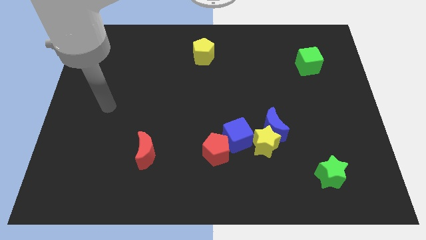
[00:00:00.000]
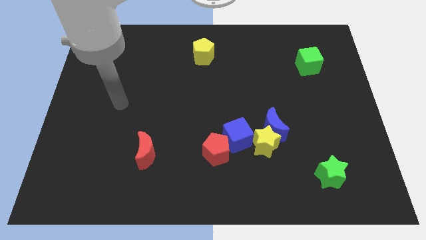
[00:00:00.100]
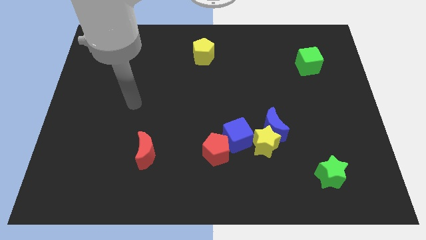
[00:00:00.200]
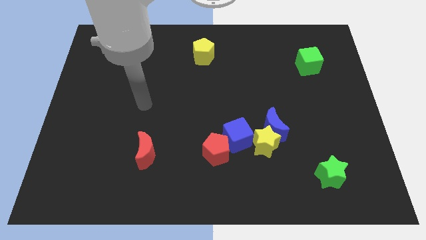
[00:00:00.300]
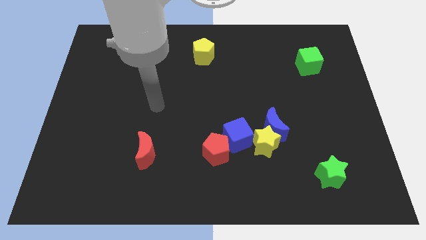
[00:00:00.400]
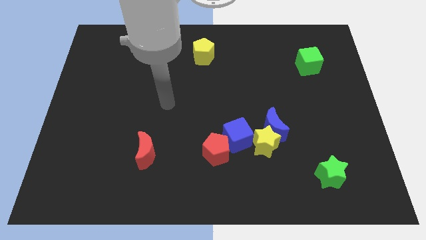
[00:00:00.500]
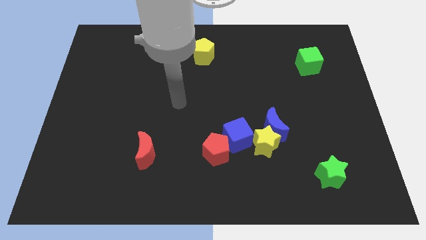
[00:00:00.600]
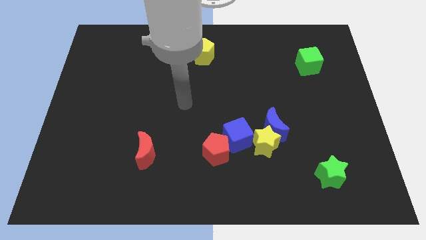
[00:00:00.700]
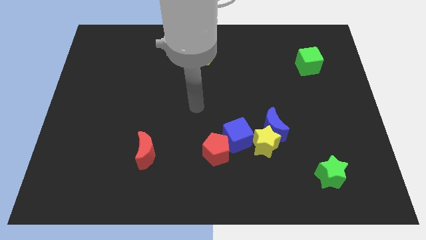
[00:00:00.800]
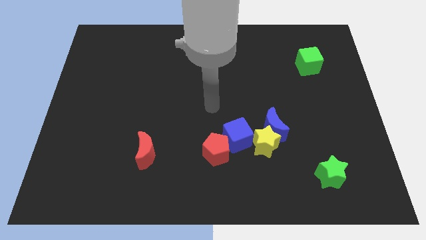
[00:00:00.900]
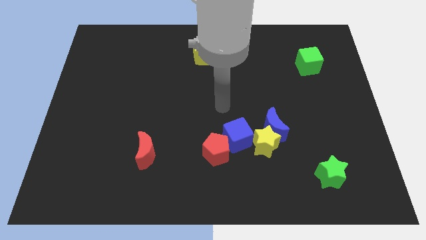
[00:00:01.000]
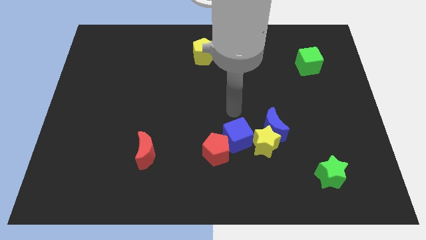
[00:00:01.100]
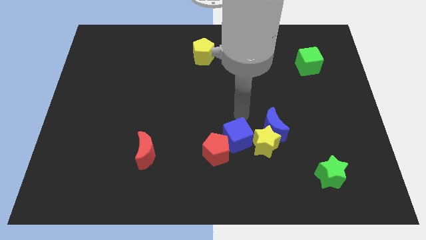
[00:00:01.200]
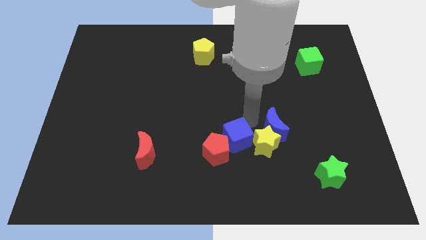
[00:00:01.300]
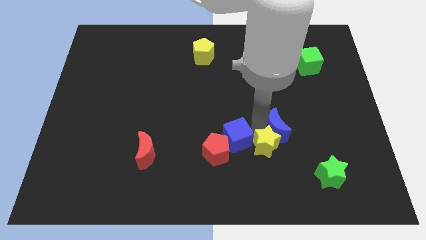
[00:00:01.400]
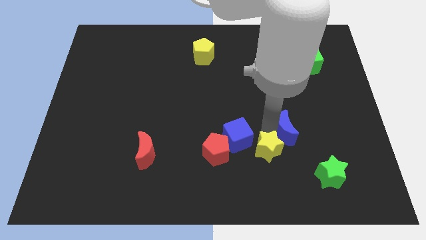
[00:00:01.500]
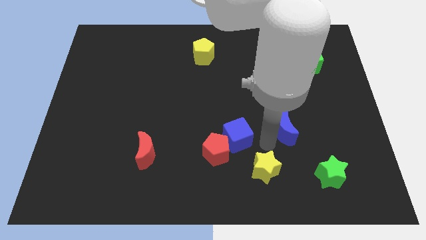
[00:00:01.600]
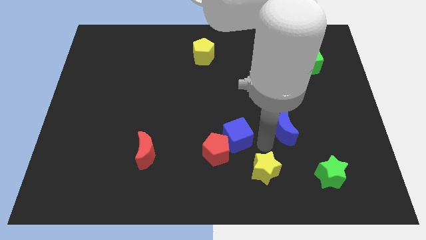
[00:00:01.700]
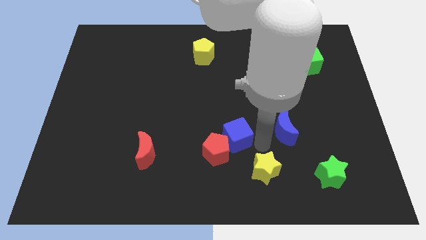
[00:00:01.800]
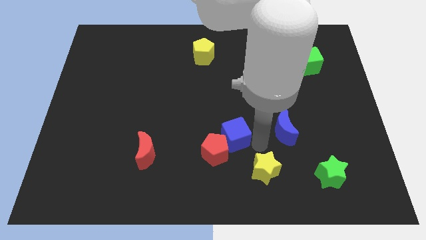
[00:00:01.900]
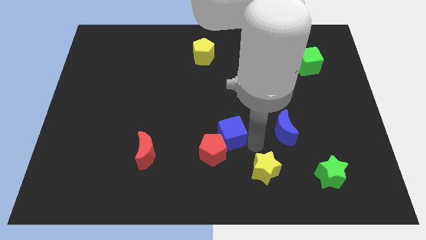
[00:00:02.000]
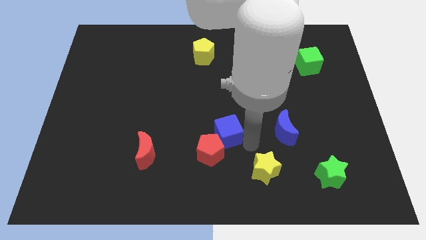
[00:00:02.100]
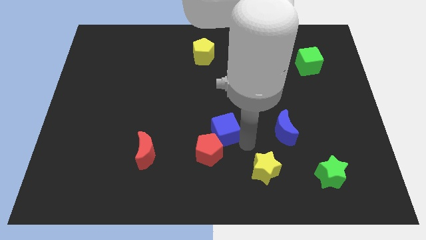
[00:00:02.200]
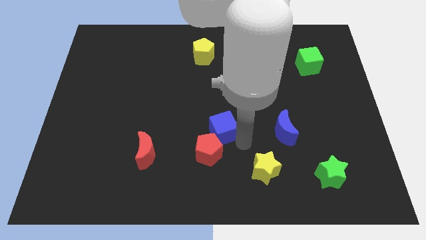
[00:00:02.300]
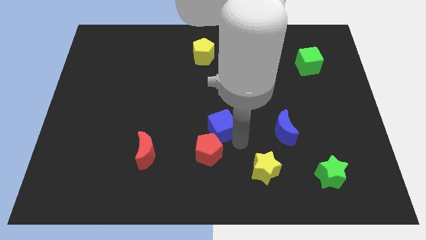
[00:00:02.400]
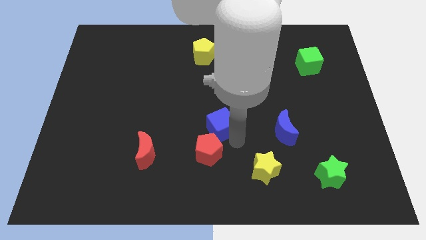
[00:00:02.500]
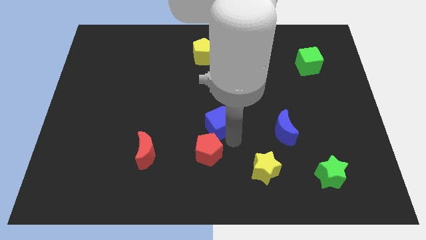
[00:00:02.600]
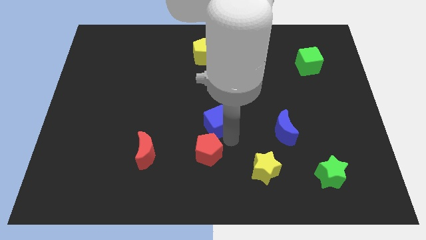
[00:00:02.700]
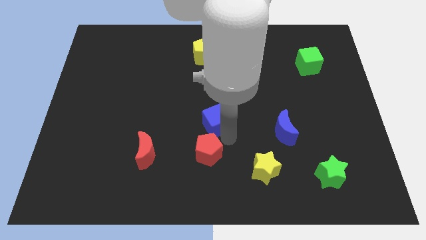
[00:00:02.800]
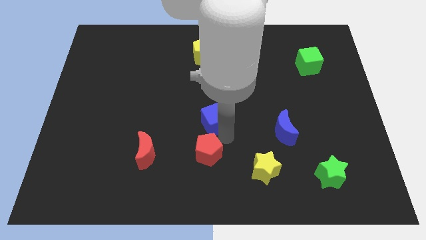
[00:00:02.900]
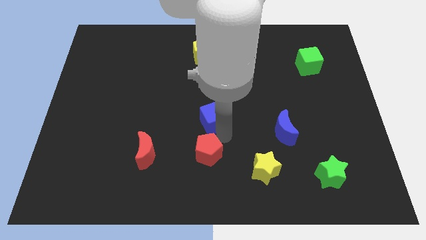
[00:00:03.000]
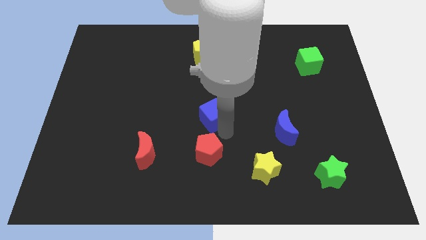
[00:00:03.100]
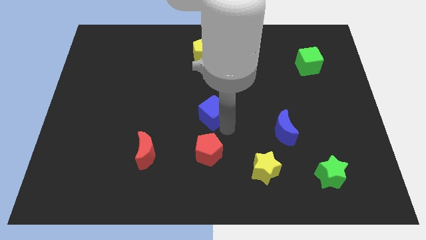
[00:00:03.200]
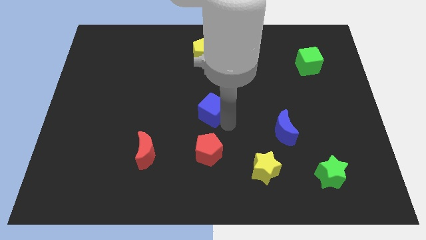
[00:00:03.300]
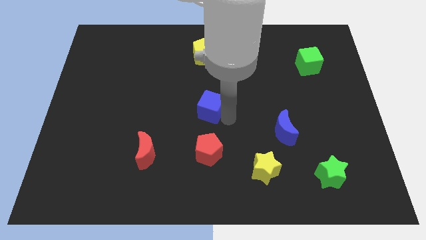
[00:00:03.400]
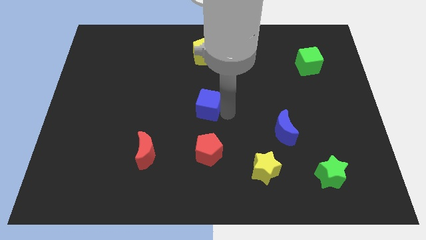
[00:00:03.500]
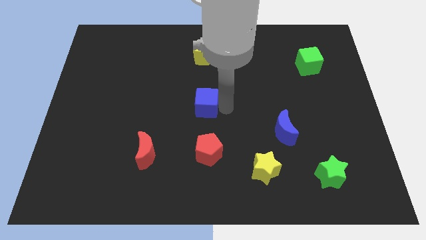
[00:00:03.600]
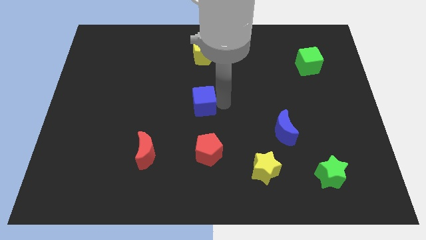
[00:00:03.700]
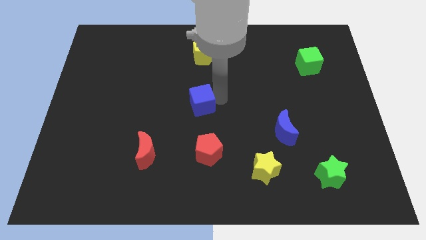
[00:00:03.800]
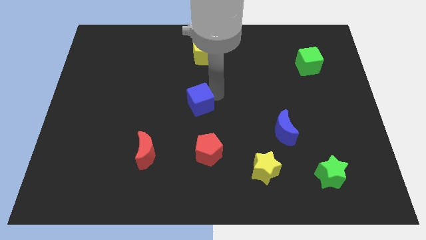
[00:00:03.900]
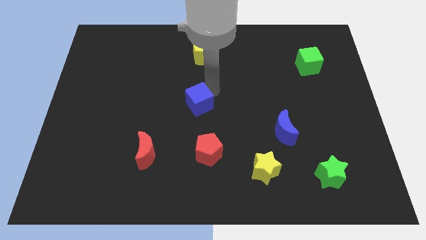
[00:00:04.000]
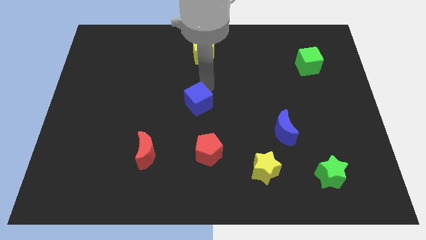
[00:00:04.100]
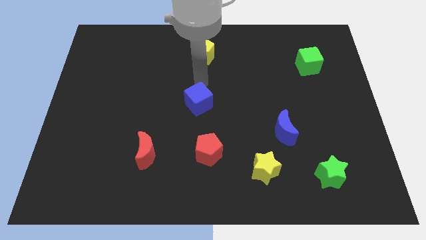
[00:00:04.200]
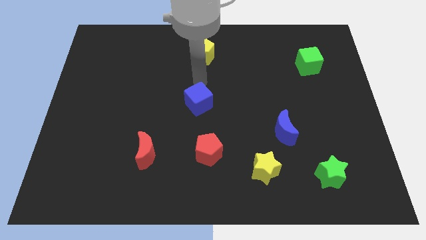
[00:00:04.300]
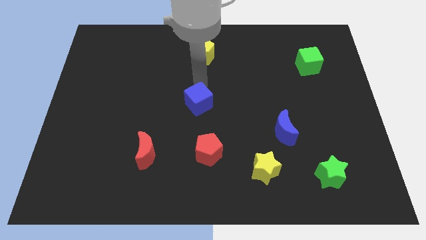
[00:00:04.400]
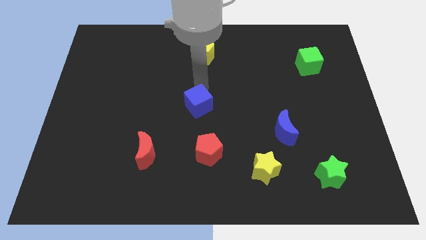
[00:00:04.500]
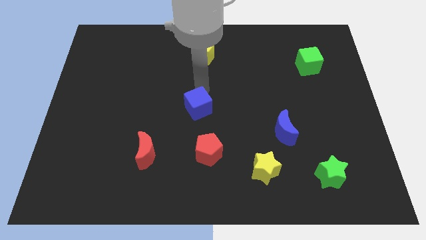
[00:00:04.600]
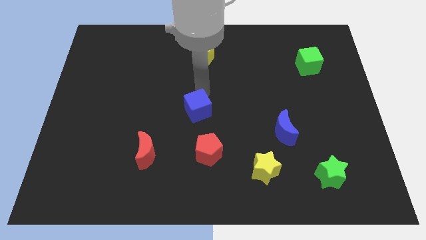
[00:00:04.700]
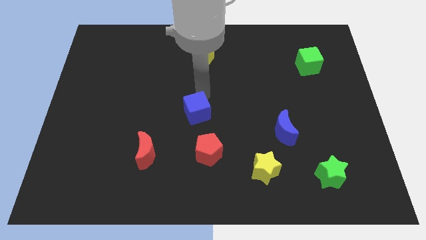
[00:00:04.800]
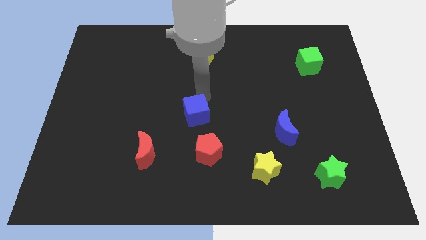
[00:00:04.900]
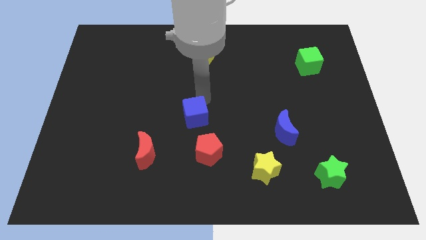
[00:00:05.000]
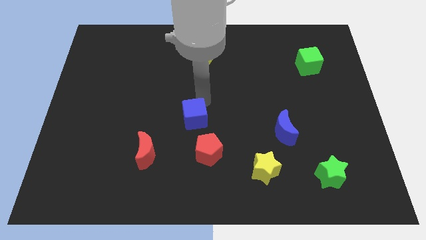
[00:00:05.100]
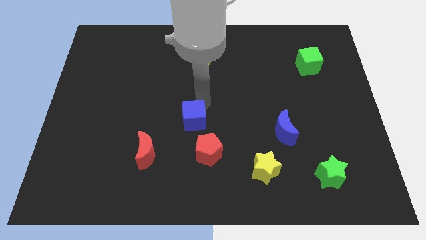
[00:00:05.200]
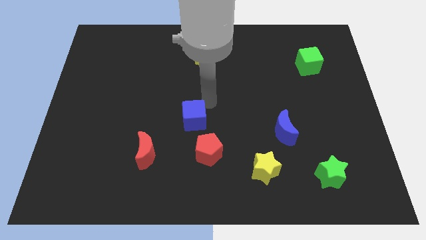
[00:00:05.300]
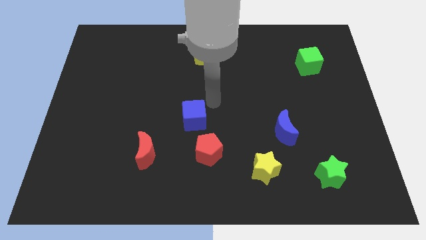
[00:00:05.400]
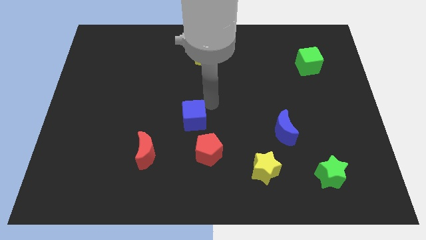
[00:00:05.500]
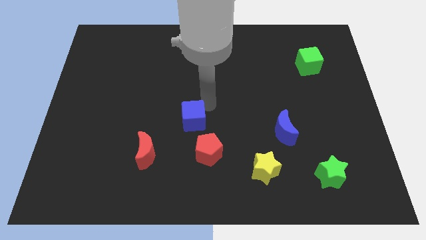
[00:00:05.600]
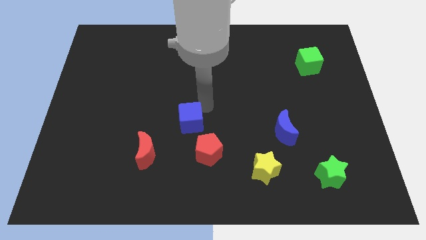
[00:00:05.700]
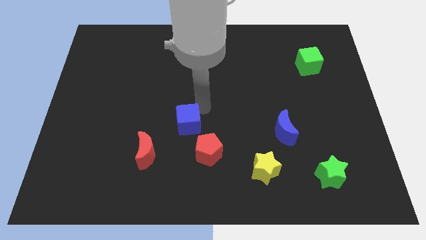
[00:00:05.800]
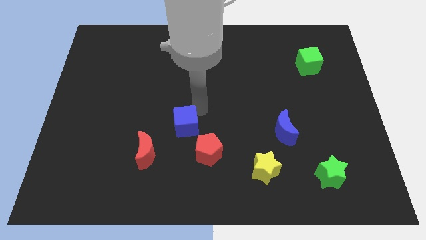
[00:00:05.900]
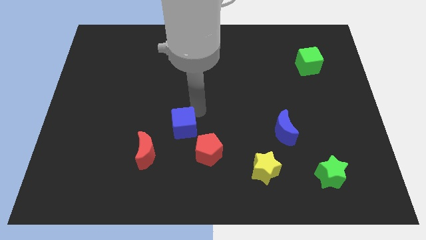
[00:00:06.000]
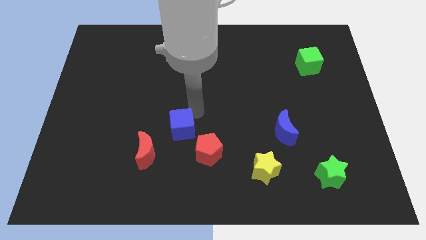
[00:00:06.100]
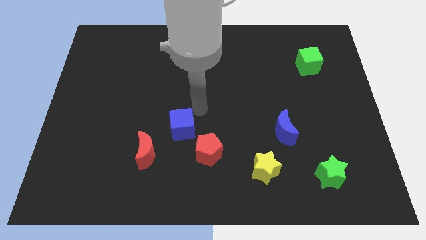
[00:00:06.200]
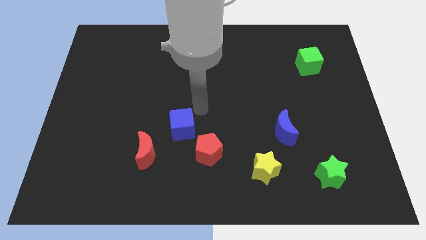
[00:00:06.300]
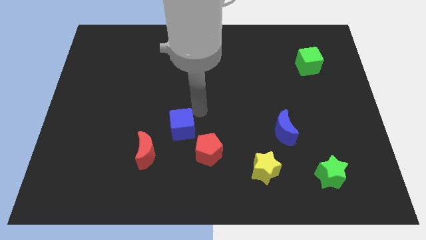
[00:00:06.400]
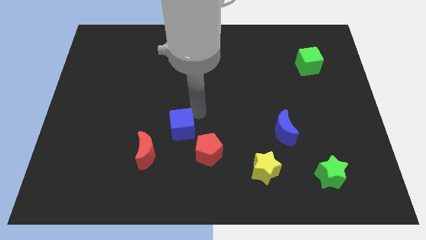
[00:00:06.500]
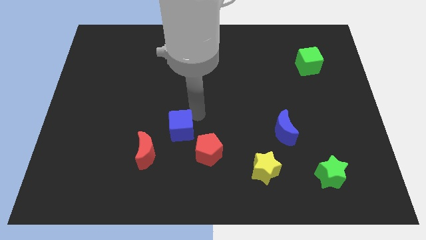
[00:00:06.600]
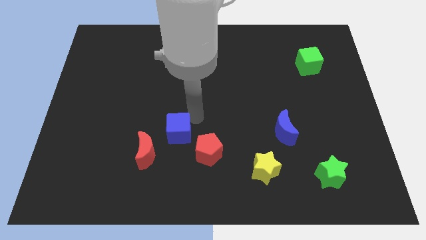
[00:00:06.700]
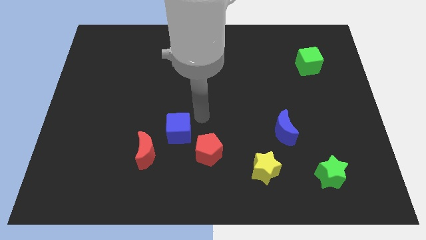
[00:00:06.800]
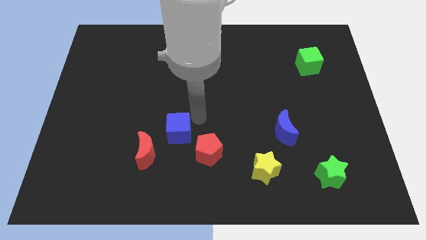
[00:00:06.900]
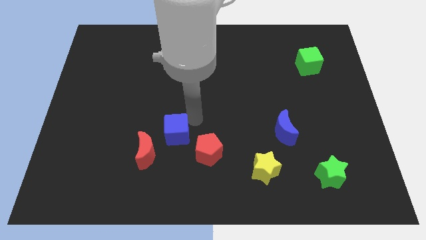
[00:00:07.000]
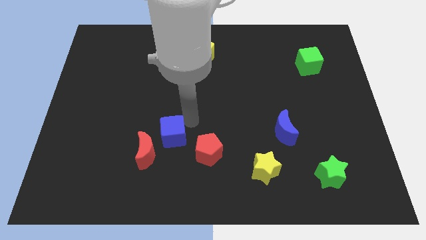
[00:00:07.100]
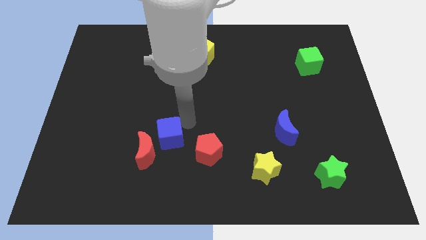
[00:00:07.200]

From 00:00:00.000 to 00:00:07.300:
slide the blue cube next to the red moon
